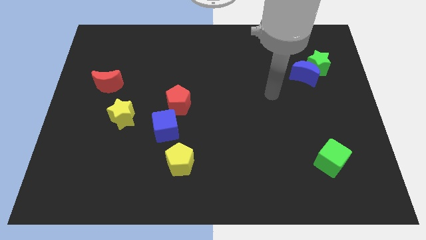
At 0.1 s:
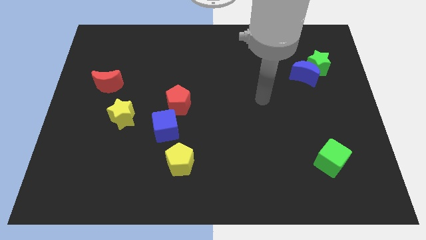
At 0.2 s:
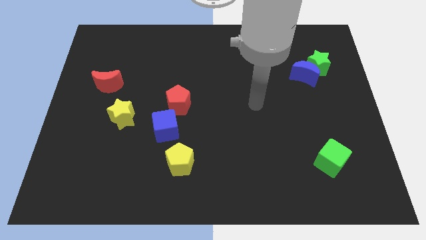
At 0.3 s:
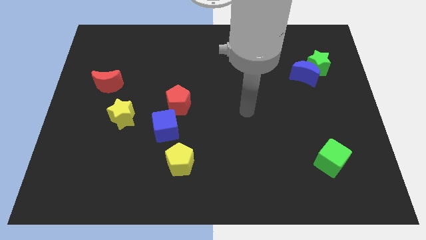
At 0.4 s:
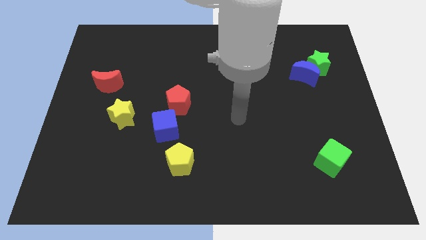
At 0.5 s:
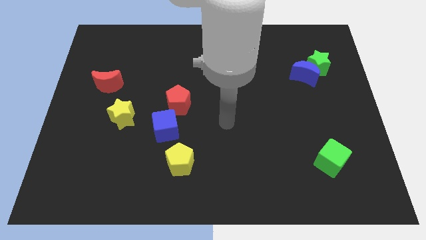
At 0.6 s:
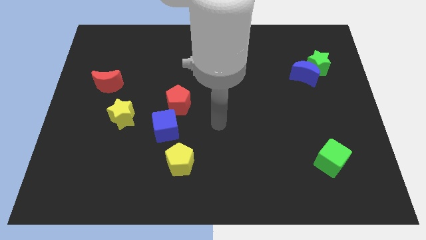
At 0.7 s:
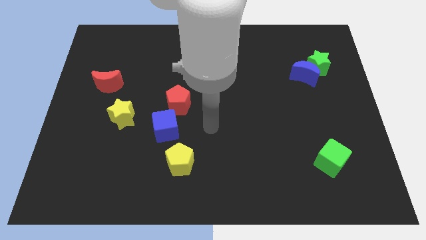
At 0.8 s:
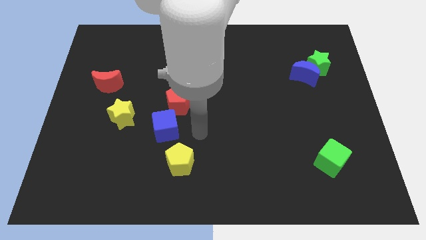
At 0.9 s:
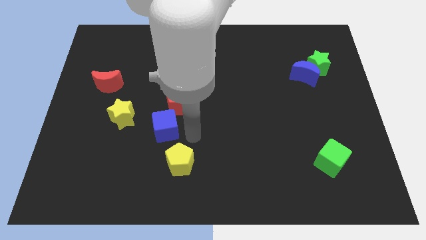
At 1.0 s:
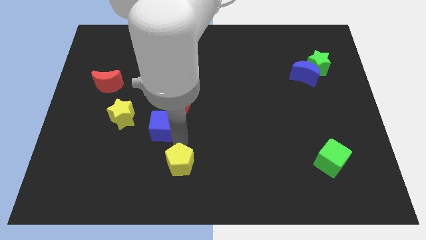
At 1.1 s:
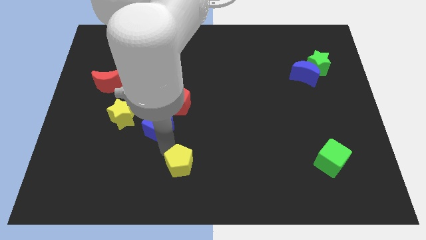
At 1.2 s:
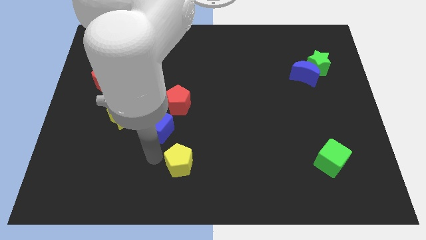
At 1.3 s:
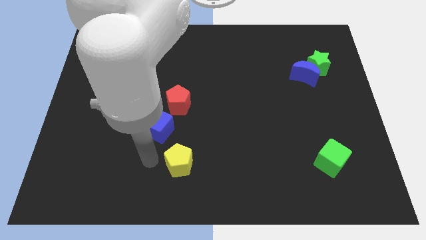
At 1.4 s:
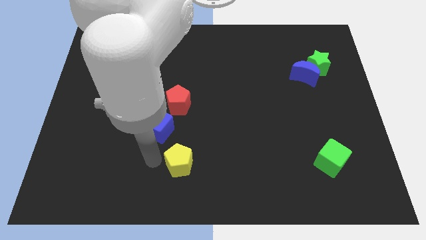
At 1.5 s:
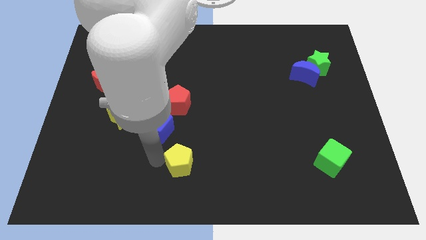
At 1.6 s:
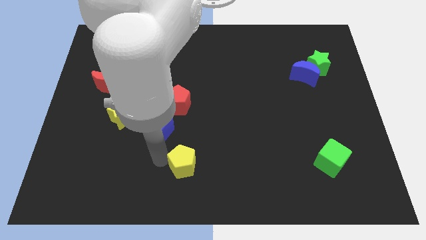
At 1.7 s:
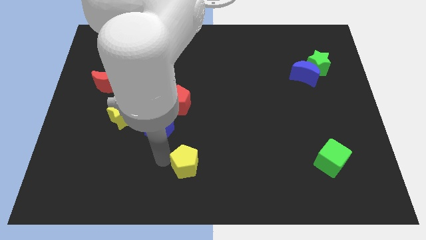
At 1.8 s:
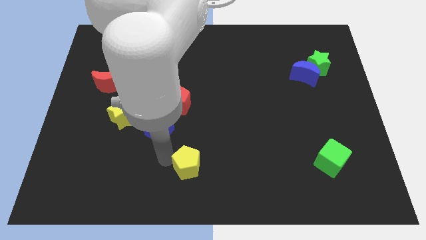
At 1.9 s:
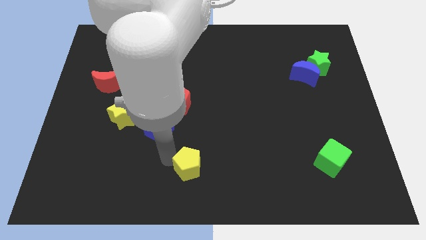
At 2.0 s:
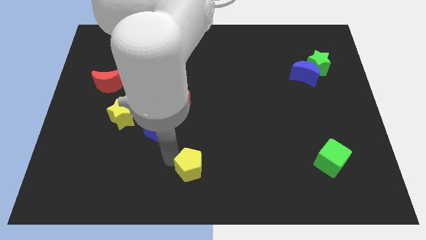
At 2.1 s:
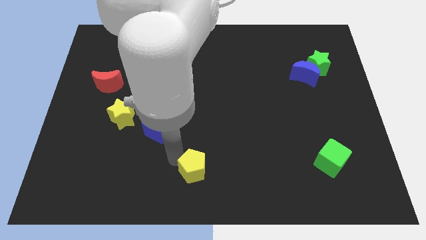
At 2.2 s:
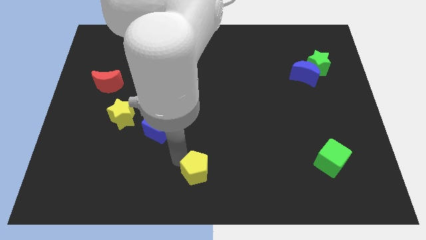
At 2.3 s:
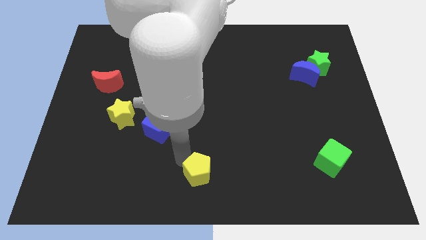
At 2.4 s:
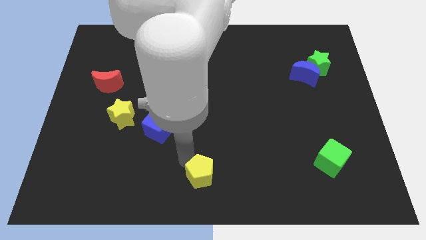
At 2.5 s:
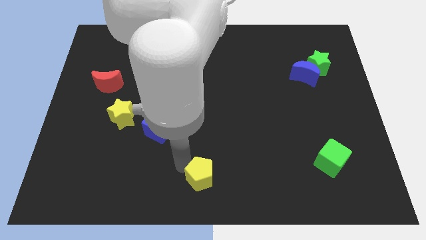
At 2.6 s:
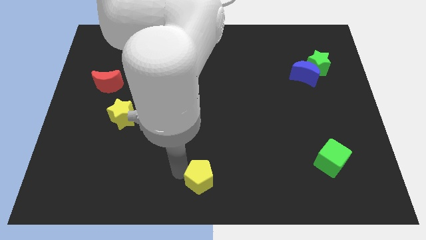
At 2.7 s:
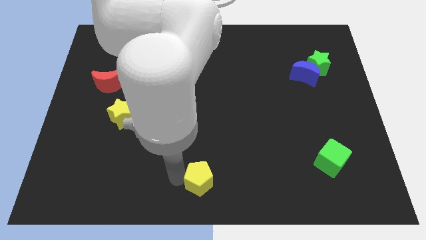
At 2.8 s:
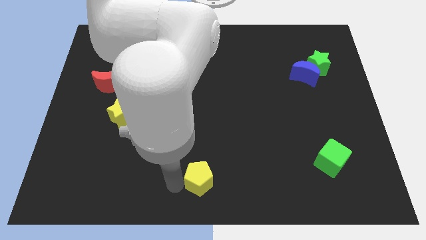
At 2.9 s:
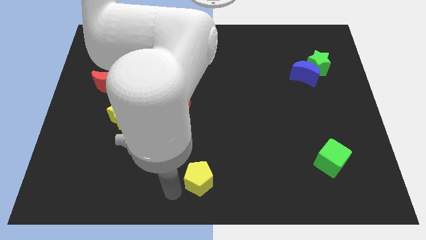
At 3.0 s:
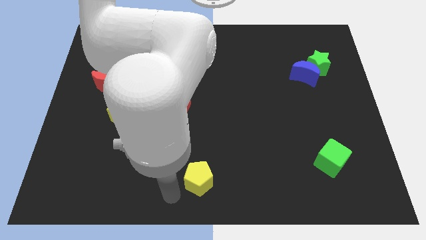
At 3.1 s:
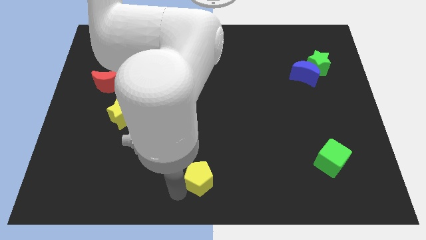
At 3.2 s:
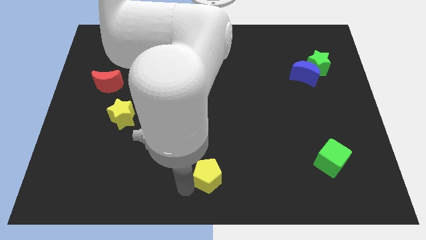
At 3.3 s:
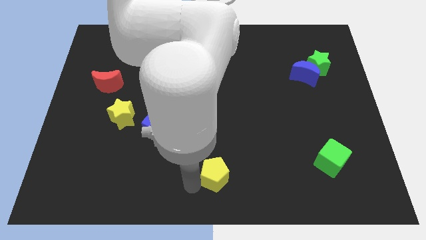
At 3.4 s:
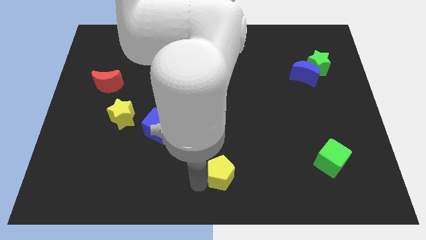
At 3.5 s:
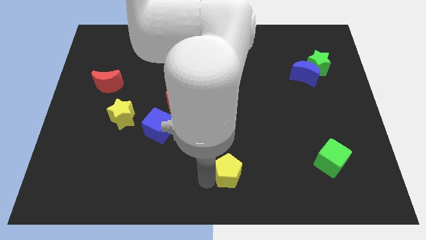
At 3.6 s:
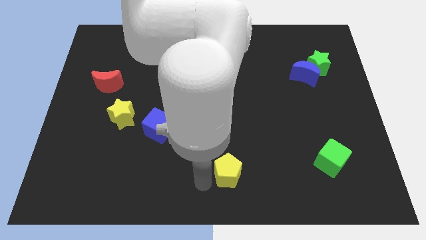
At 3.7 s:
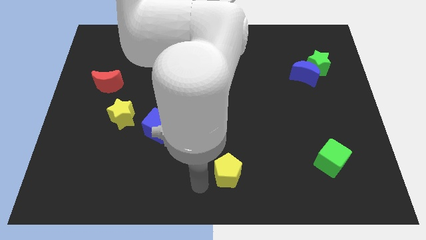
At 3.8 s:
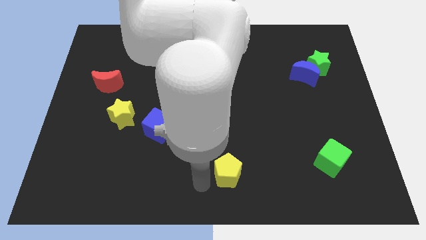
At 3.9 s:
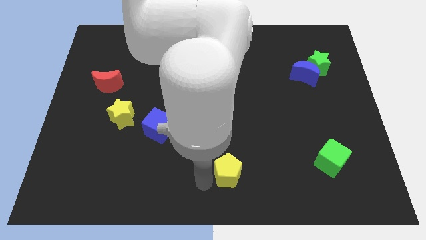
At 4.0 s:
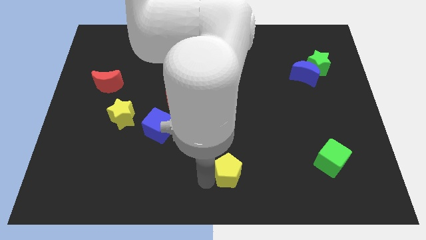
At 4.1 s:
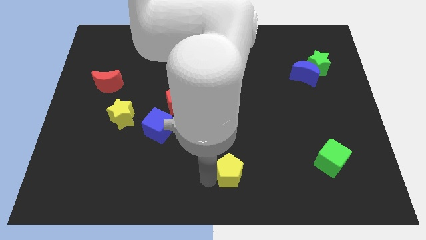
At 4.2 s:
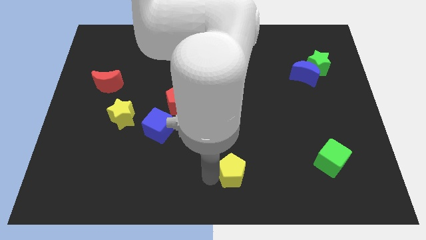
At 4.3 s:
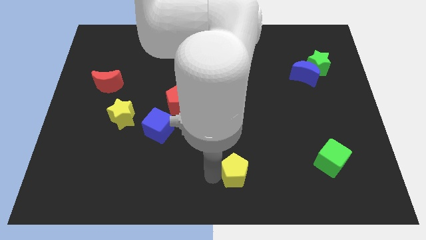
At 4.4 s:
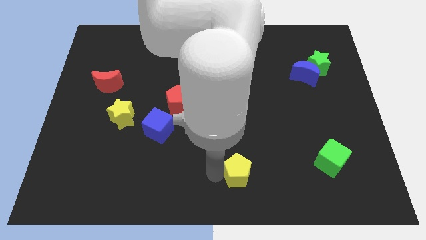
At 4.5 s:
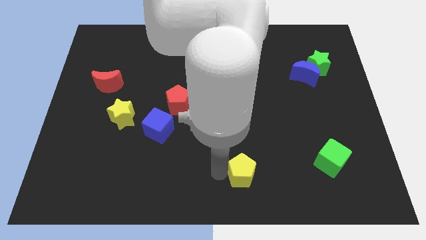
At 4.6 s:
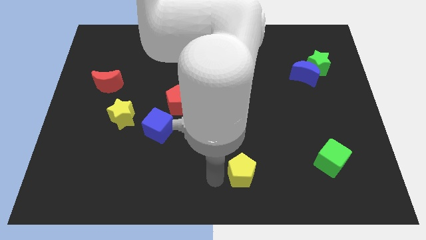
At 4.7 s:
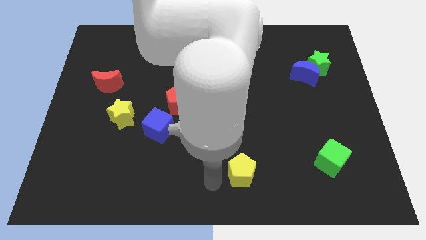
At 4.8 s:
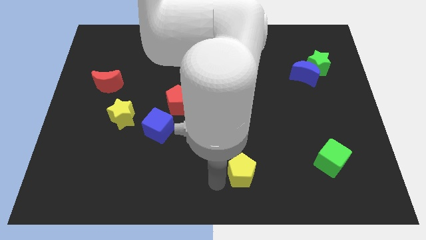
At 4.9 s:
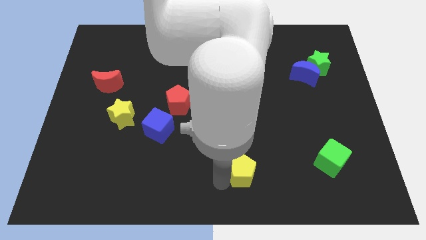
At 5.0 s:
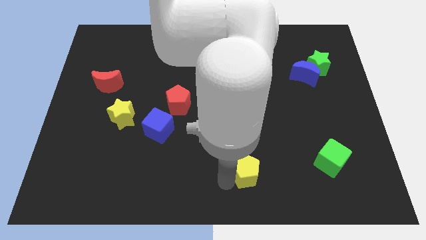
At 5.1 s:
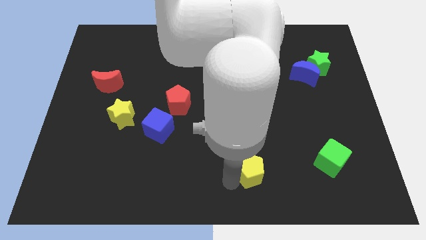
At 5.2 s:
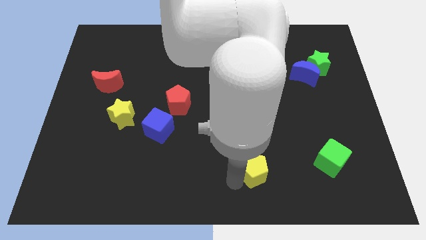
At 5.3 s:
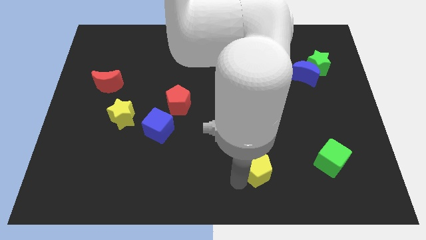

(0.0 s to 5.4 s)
push the yellow pentagon to the left of the green cube

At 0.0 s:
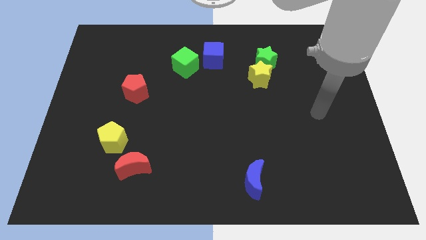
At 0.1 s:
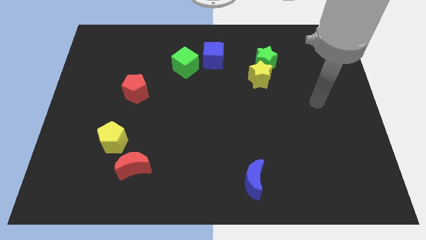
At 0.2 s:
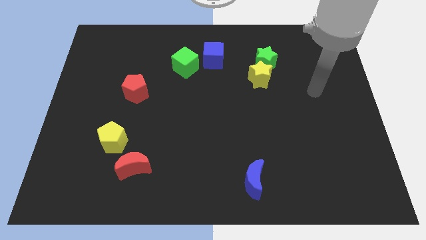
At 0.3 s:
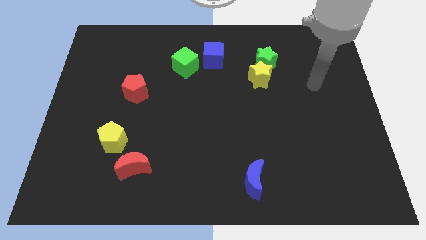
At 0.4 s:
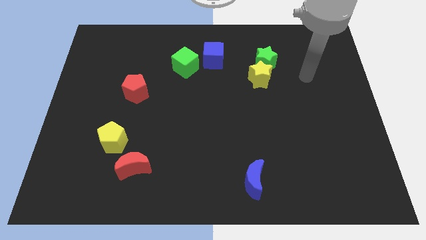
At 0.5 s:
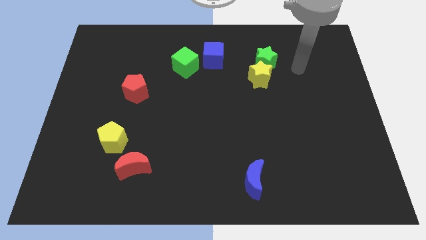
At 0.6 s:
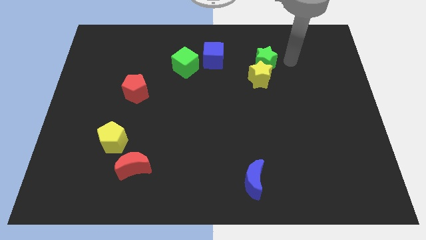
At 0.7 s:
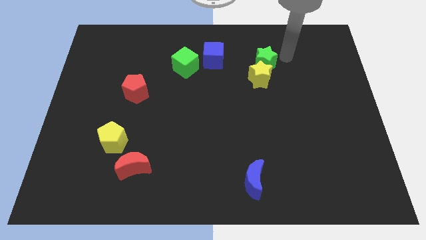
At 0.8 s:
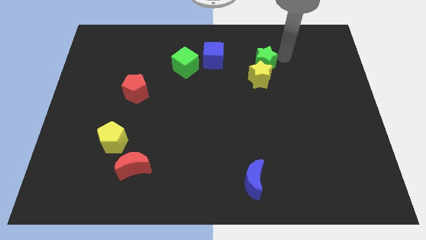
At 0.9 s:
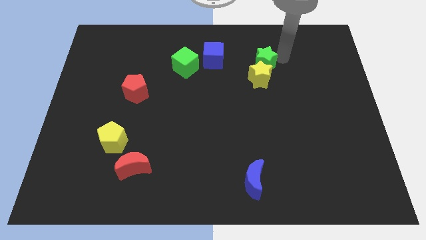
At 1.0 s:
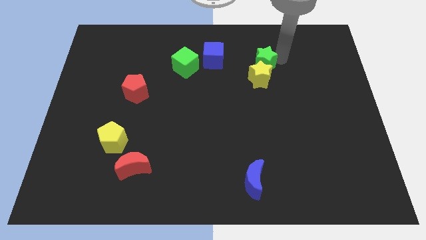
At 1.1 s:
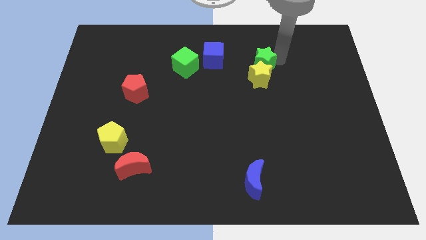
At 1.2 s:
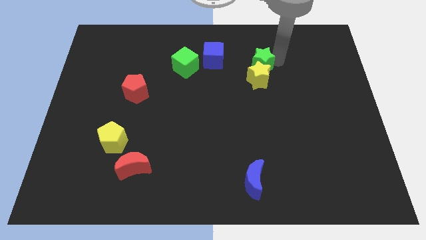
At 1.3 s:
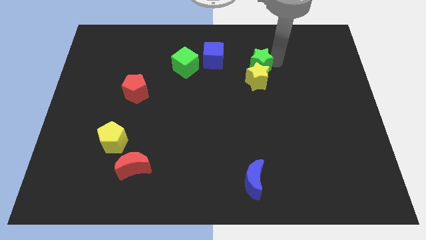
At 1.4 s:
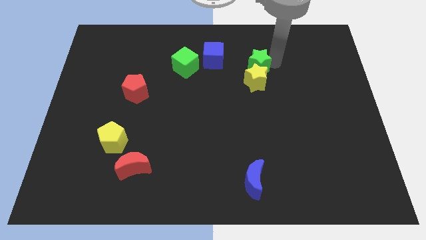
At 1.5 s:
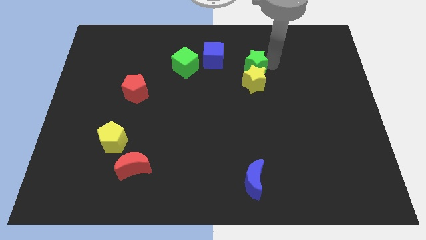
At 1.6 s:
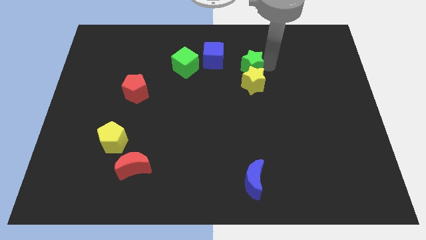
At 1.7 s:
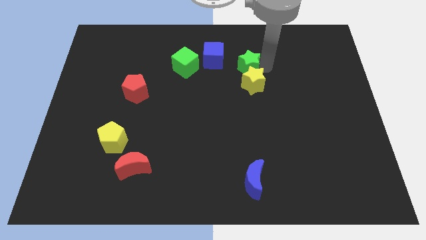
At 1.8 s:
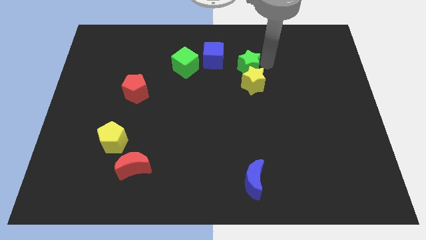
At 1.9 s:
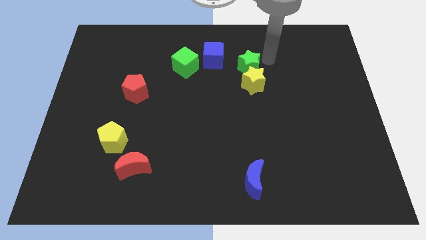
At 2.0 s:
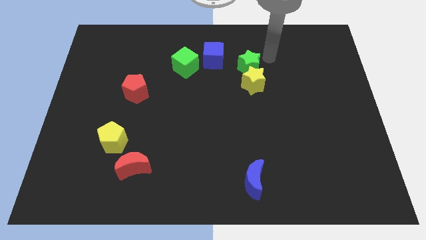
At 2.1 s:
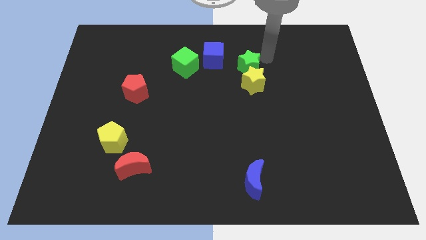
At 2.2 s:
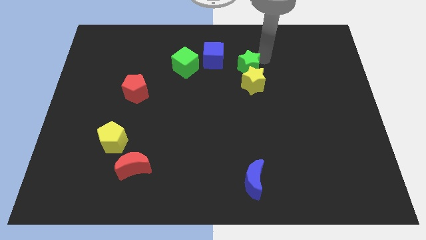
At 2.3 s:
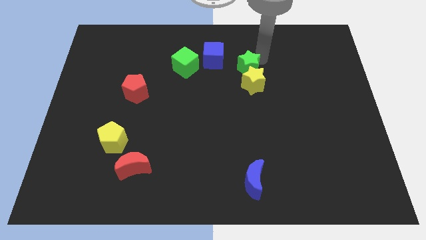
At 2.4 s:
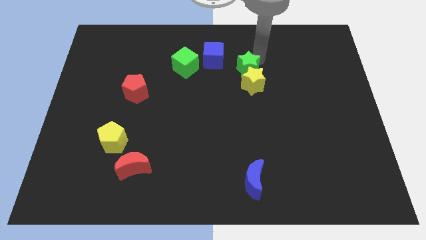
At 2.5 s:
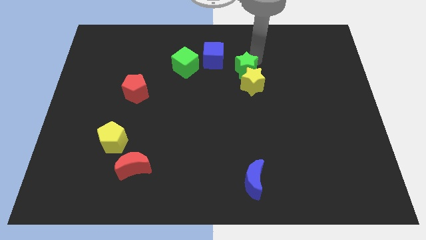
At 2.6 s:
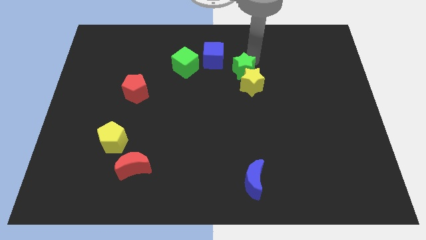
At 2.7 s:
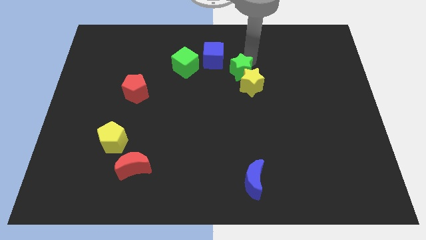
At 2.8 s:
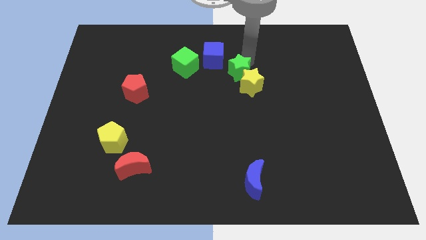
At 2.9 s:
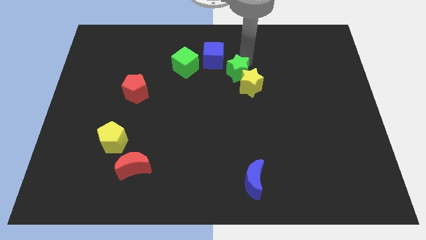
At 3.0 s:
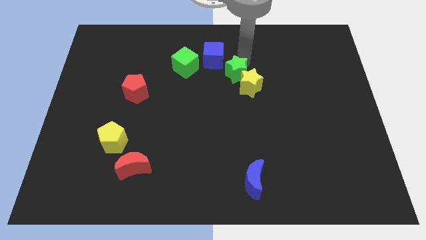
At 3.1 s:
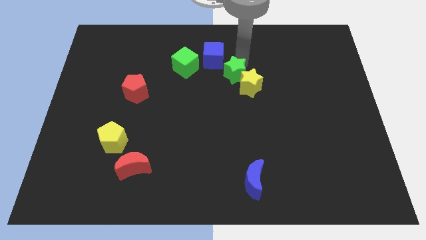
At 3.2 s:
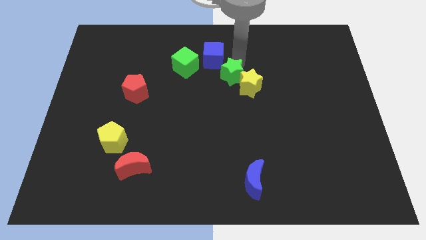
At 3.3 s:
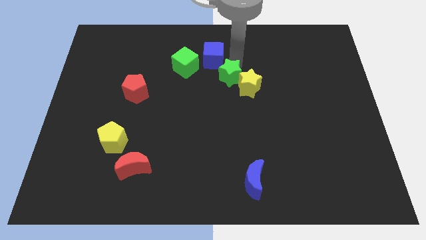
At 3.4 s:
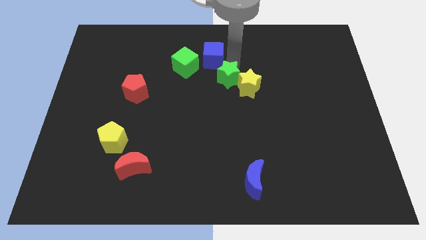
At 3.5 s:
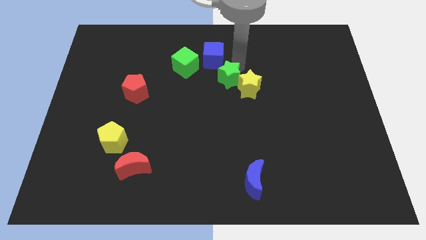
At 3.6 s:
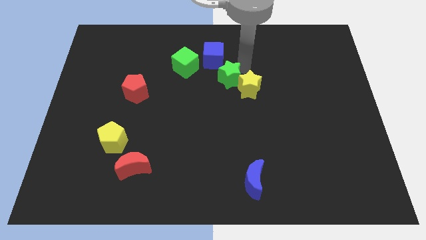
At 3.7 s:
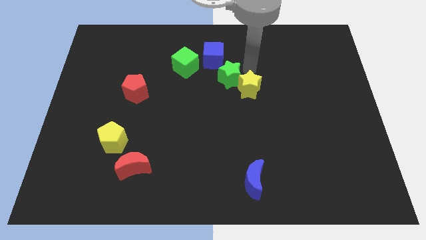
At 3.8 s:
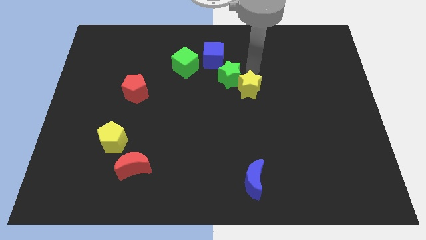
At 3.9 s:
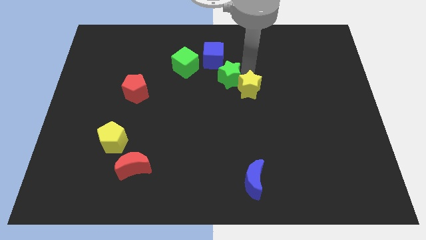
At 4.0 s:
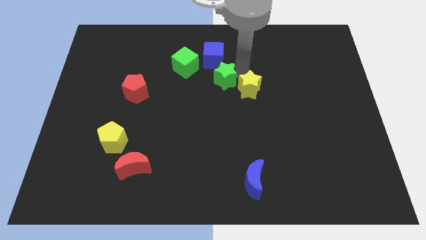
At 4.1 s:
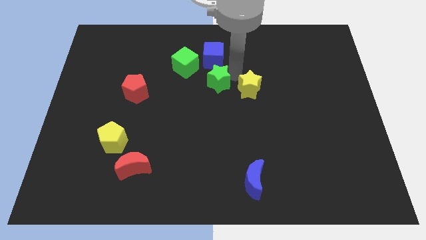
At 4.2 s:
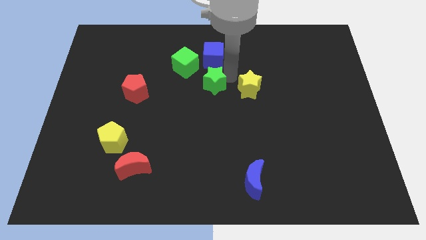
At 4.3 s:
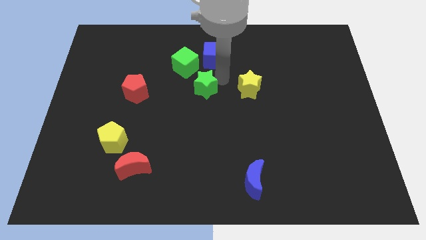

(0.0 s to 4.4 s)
slide the green star below the green cube
